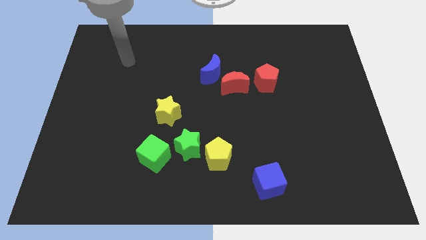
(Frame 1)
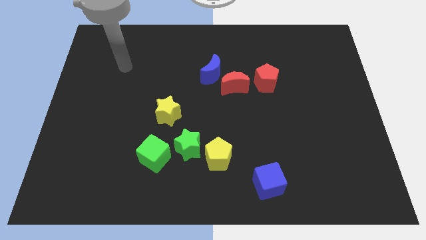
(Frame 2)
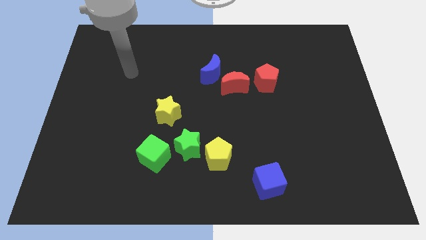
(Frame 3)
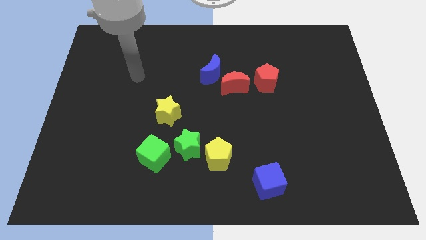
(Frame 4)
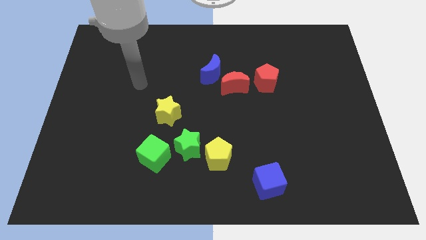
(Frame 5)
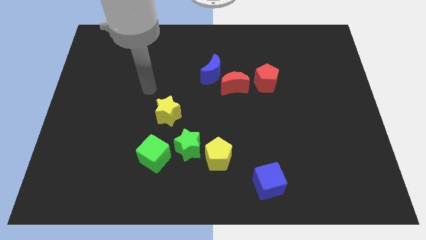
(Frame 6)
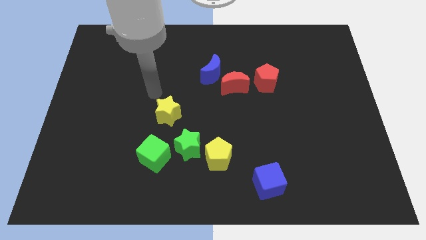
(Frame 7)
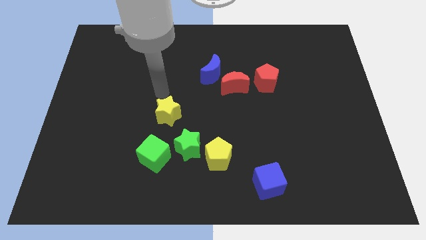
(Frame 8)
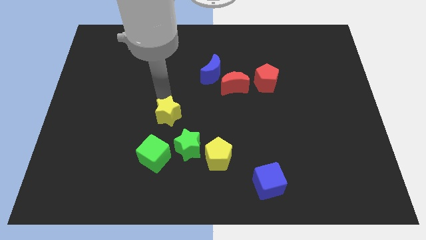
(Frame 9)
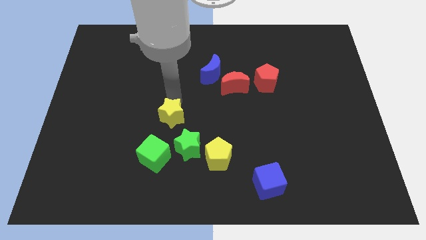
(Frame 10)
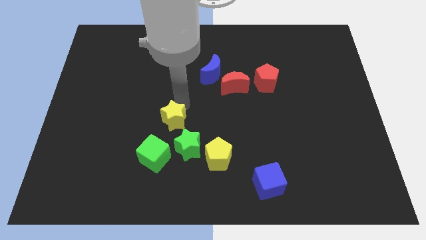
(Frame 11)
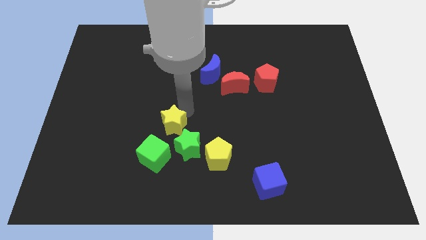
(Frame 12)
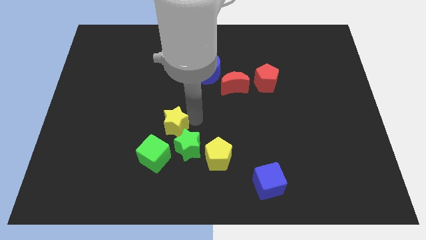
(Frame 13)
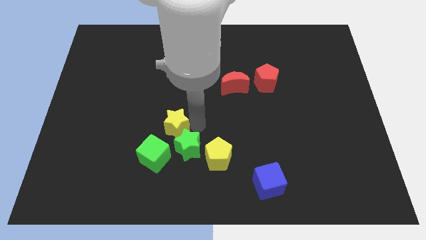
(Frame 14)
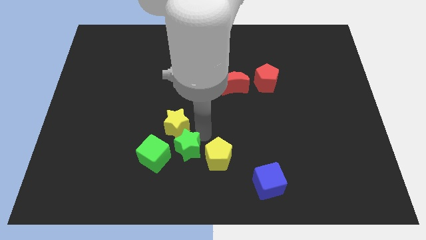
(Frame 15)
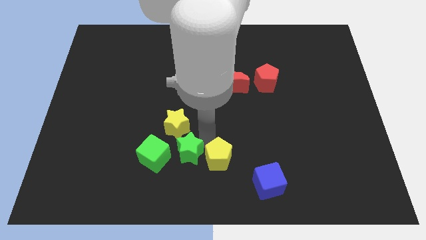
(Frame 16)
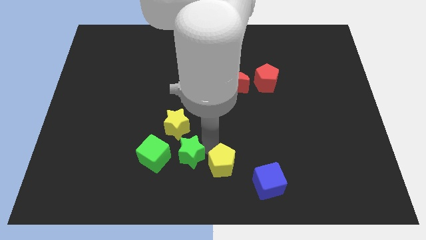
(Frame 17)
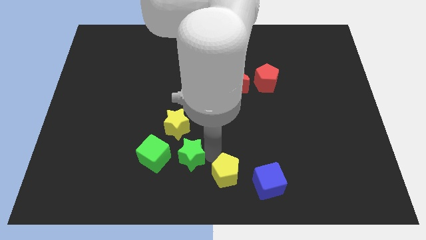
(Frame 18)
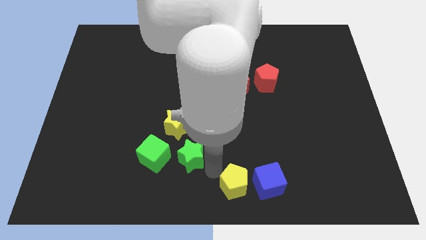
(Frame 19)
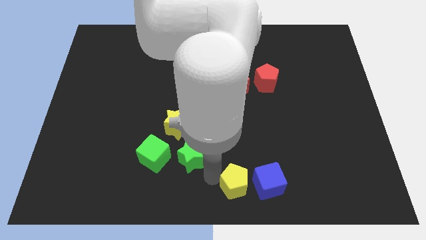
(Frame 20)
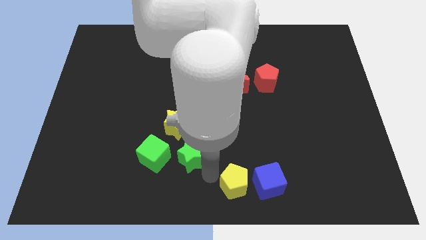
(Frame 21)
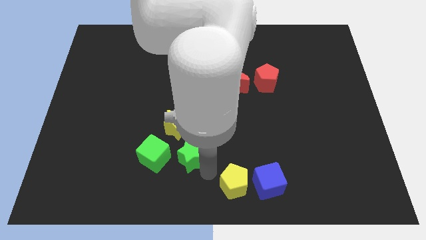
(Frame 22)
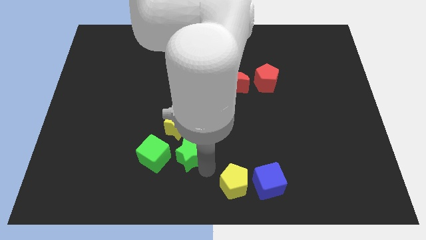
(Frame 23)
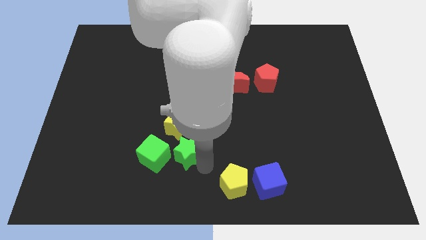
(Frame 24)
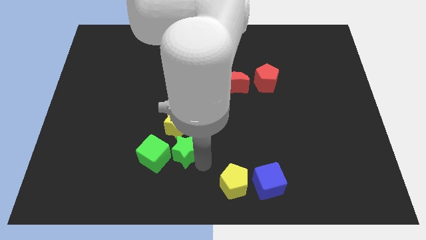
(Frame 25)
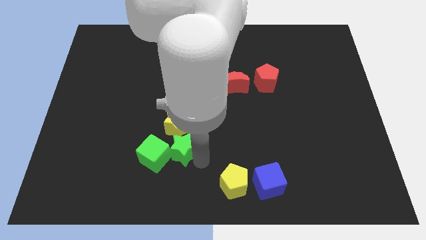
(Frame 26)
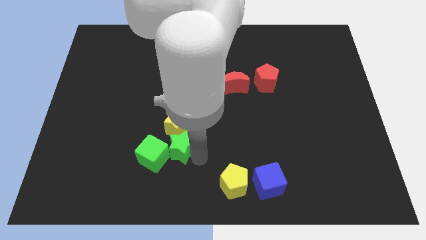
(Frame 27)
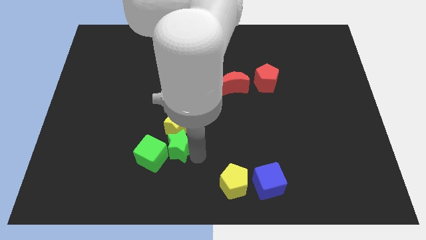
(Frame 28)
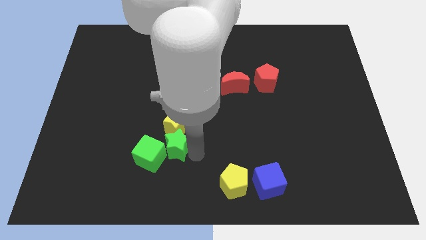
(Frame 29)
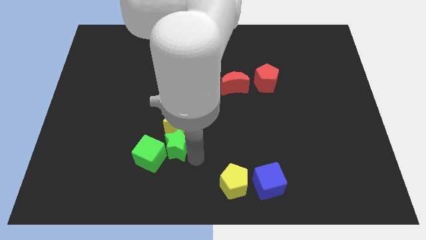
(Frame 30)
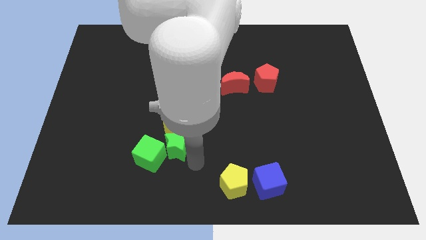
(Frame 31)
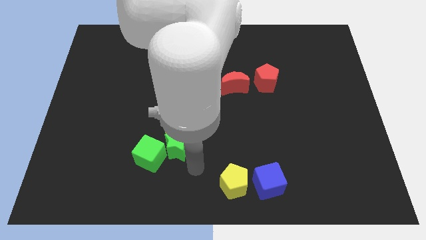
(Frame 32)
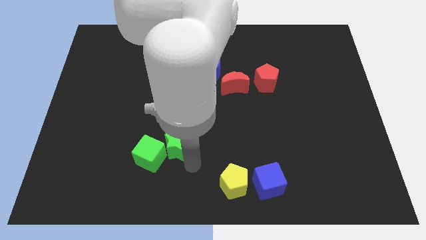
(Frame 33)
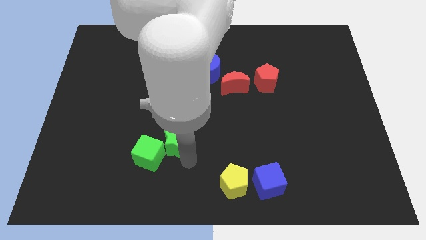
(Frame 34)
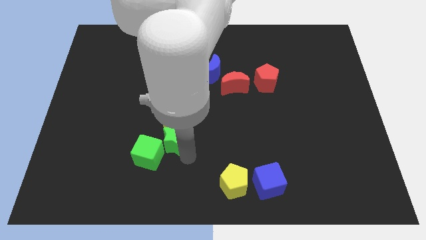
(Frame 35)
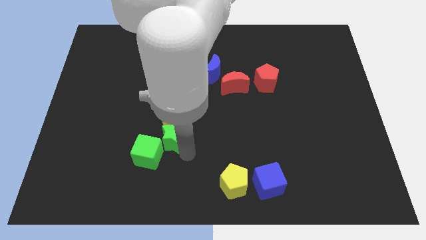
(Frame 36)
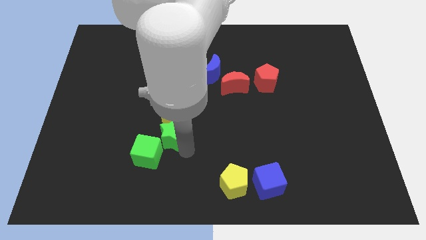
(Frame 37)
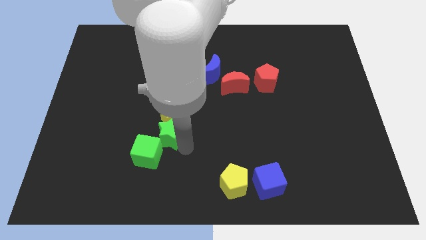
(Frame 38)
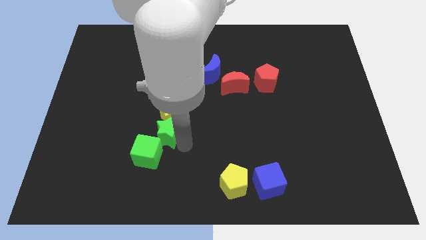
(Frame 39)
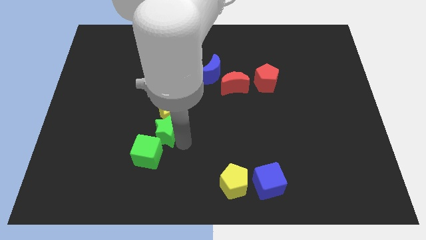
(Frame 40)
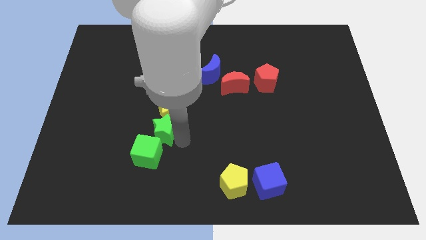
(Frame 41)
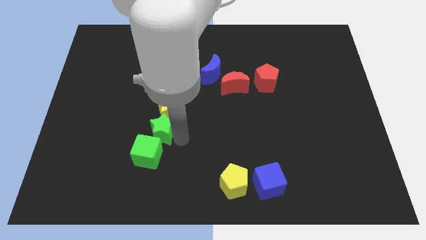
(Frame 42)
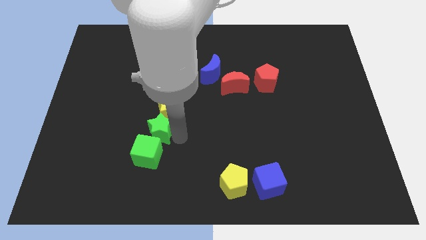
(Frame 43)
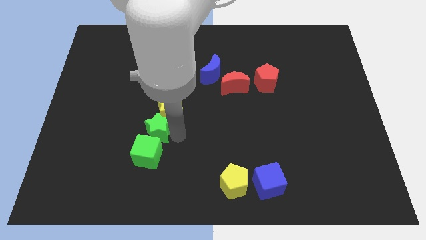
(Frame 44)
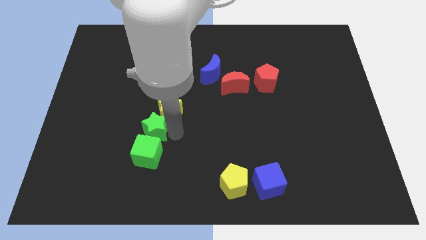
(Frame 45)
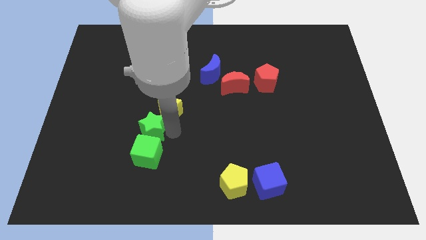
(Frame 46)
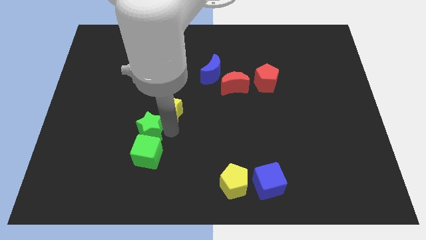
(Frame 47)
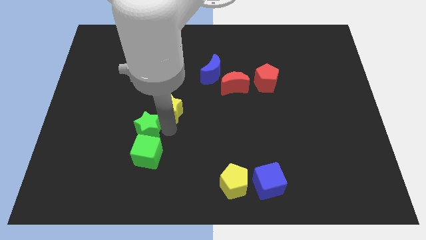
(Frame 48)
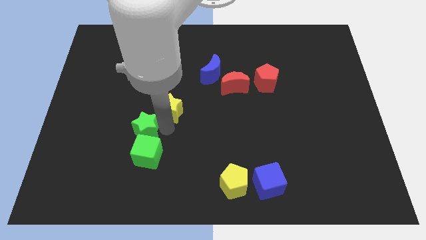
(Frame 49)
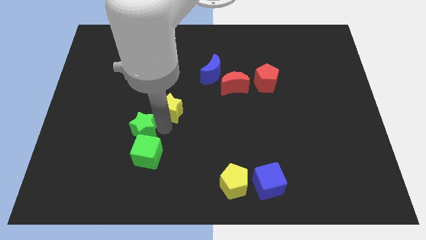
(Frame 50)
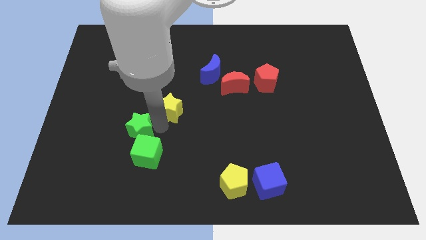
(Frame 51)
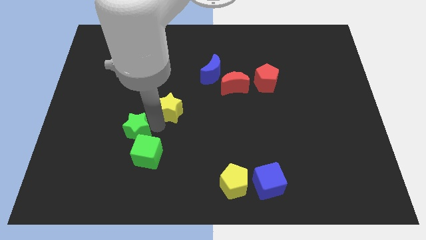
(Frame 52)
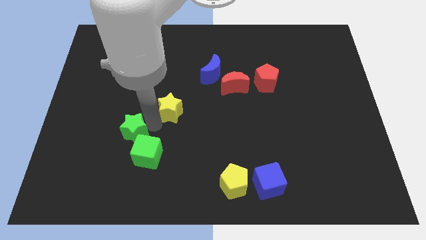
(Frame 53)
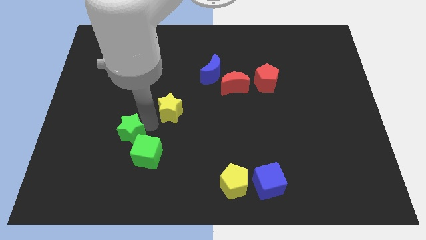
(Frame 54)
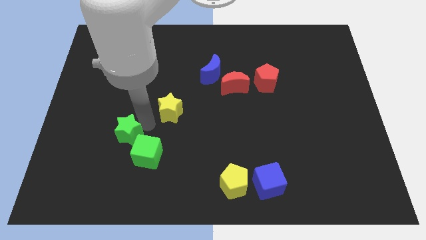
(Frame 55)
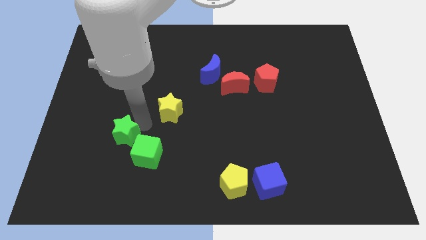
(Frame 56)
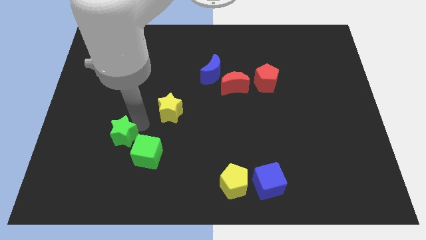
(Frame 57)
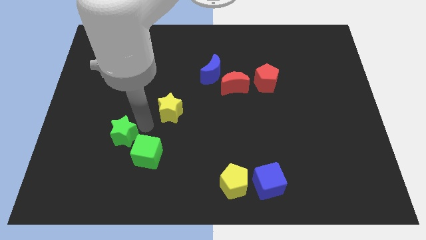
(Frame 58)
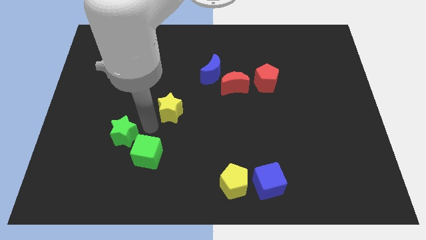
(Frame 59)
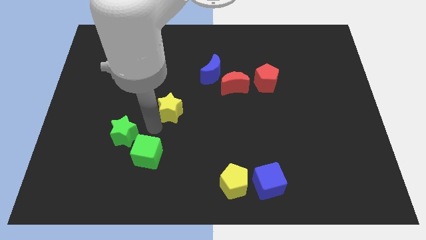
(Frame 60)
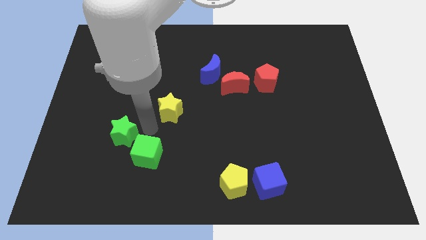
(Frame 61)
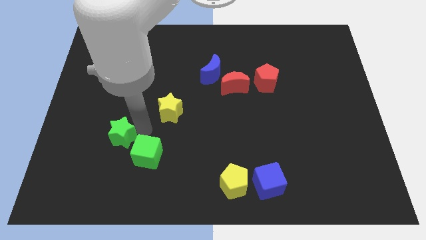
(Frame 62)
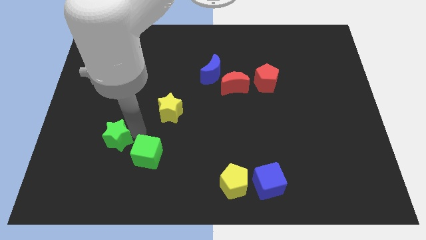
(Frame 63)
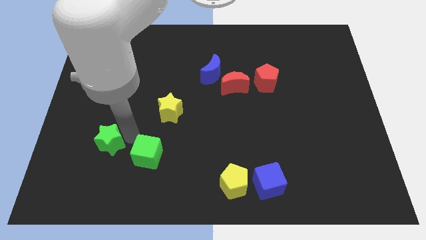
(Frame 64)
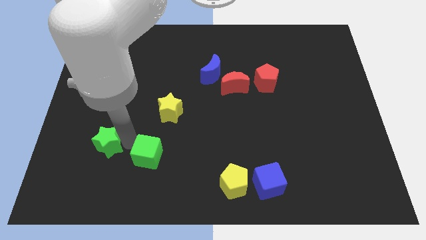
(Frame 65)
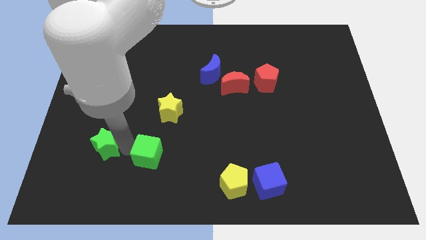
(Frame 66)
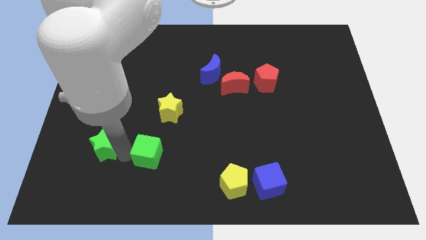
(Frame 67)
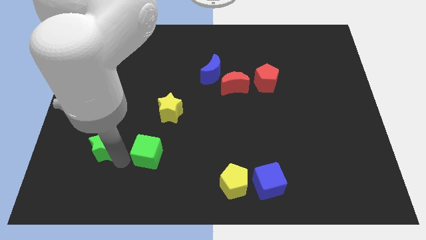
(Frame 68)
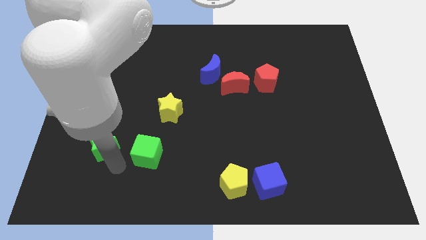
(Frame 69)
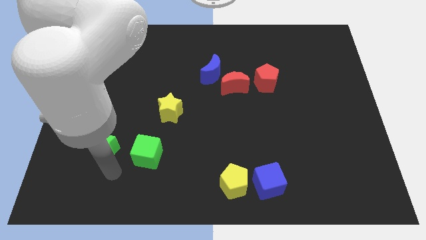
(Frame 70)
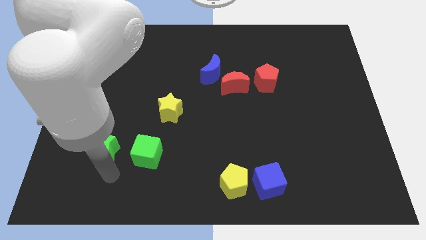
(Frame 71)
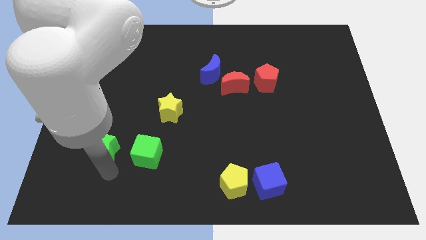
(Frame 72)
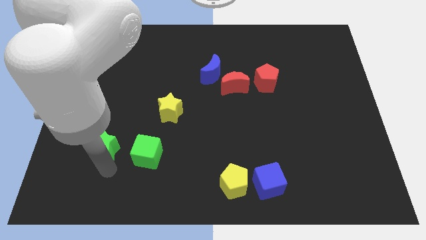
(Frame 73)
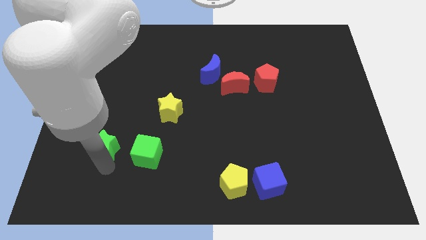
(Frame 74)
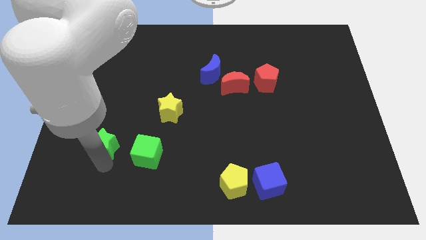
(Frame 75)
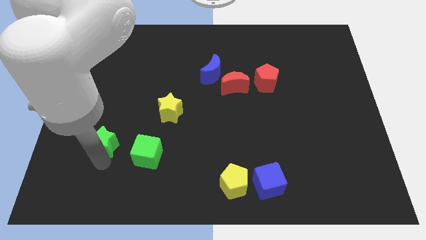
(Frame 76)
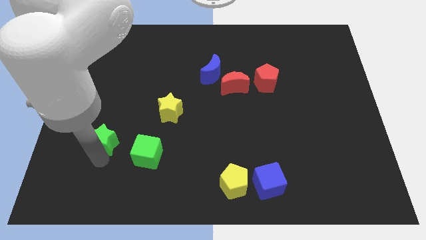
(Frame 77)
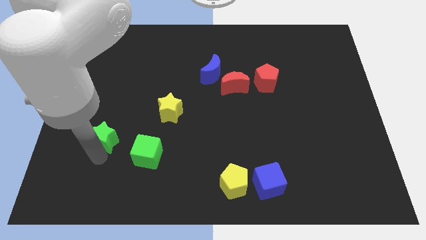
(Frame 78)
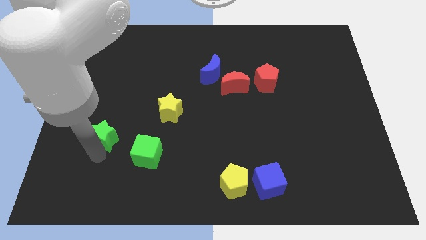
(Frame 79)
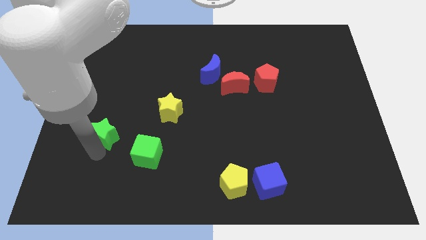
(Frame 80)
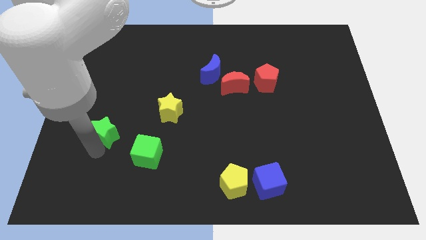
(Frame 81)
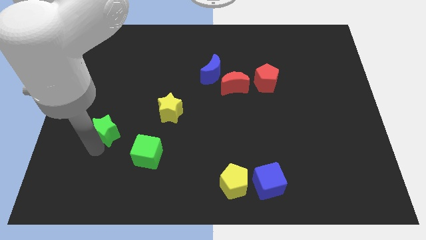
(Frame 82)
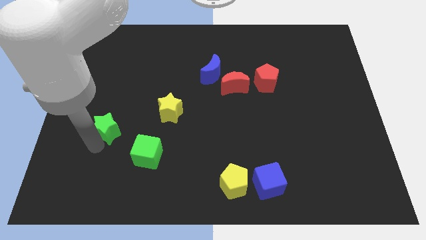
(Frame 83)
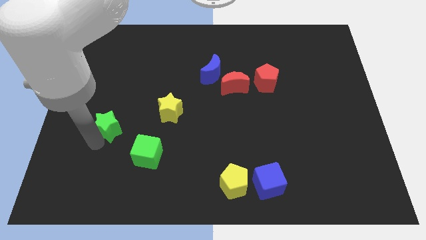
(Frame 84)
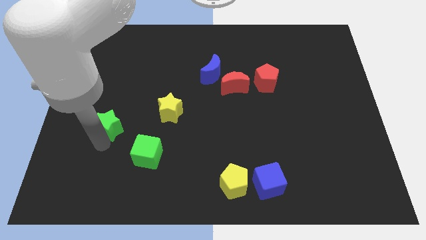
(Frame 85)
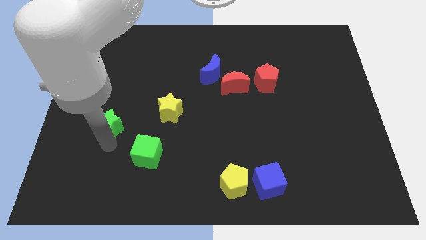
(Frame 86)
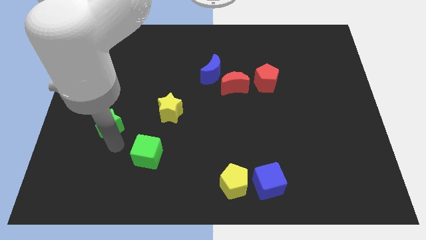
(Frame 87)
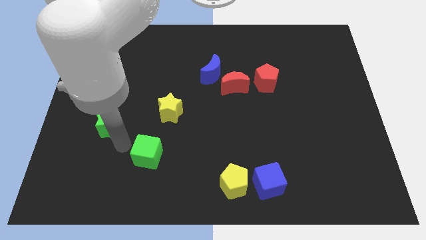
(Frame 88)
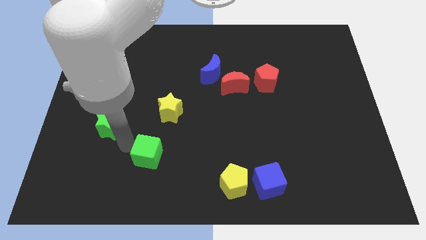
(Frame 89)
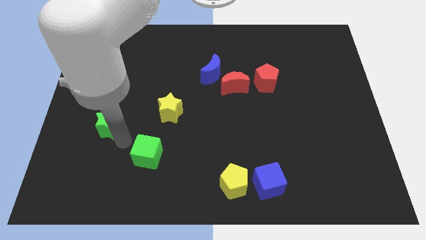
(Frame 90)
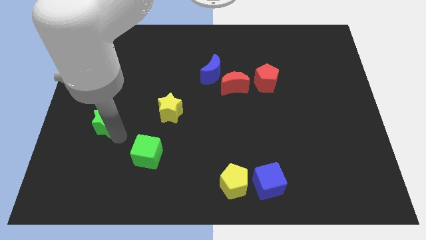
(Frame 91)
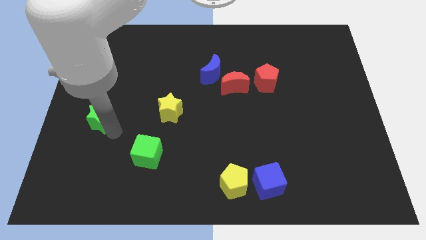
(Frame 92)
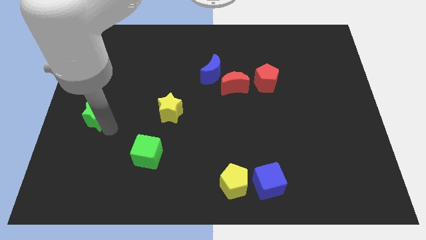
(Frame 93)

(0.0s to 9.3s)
put the green star to the left side of the board
